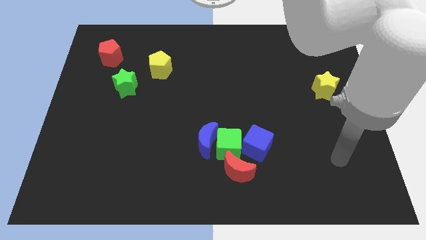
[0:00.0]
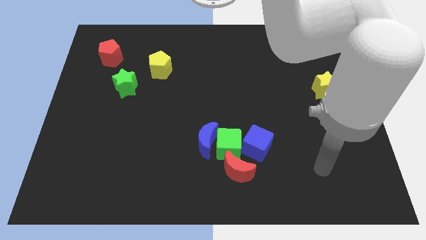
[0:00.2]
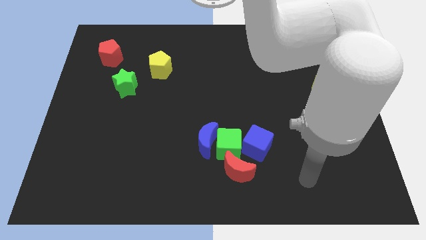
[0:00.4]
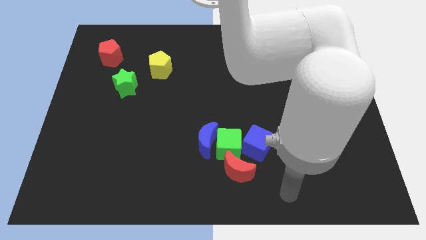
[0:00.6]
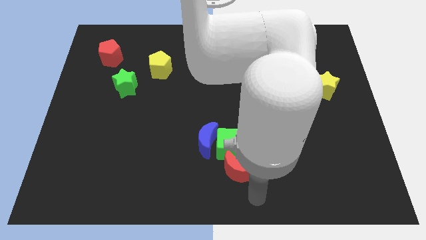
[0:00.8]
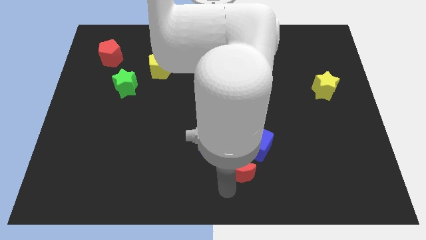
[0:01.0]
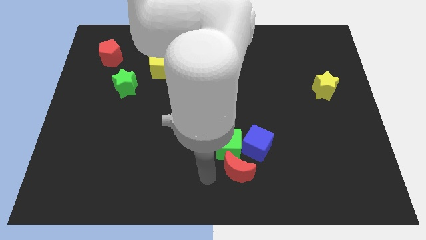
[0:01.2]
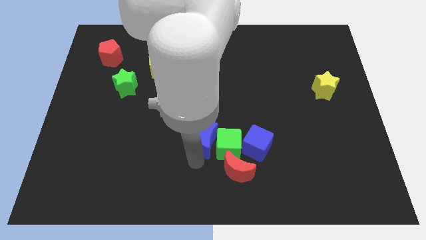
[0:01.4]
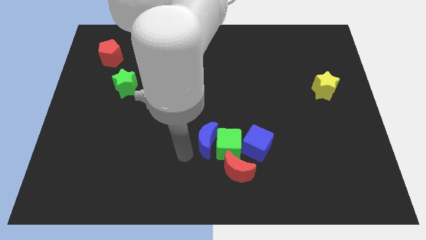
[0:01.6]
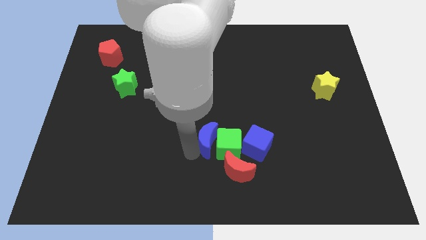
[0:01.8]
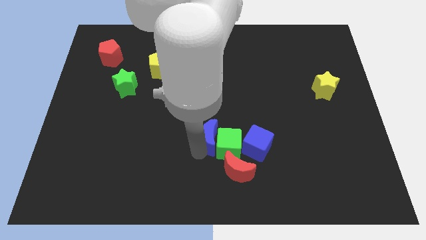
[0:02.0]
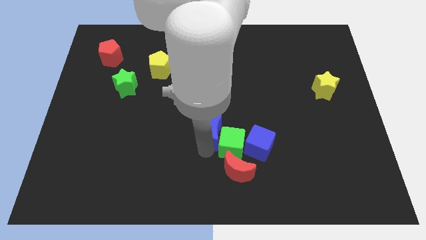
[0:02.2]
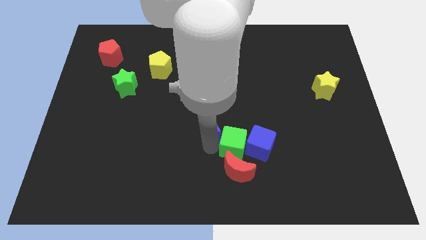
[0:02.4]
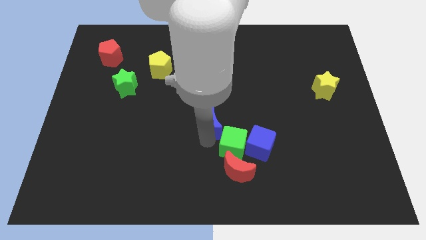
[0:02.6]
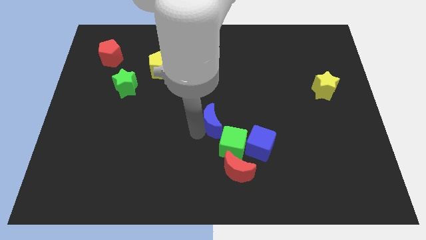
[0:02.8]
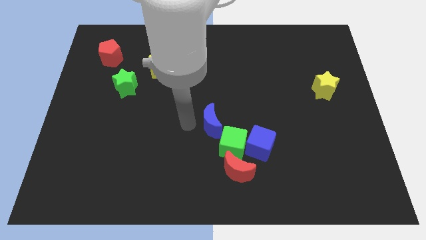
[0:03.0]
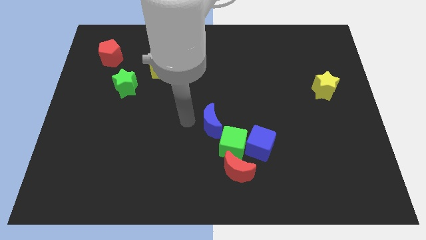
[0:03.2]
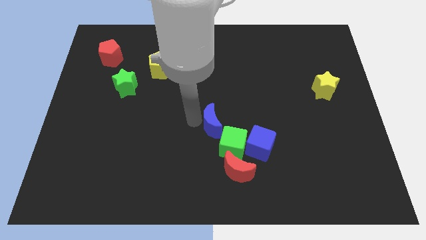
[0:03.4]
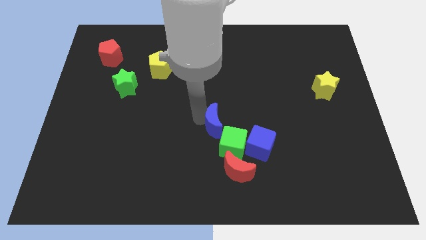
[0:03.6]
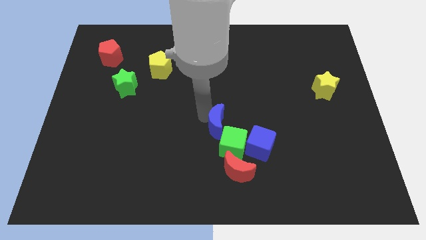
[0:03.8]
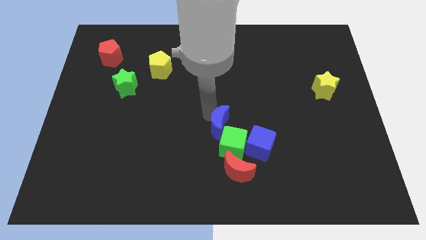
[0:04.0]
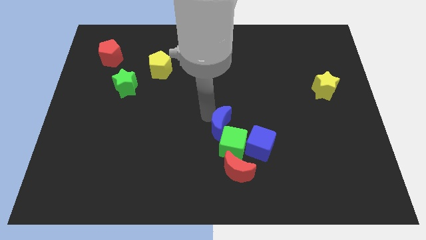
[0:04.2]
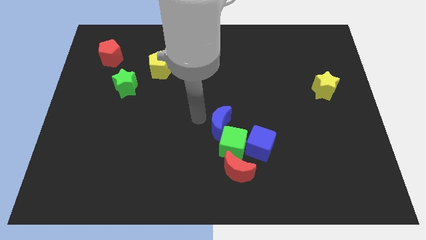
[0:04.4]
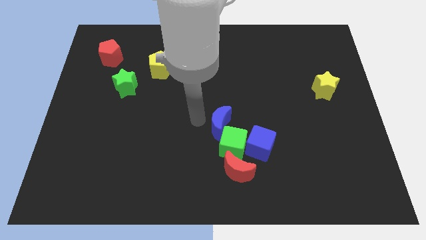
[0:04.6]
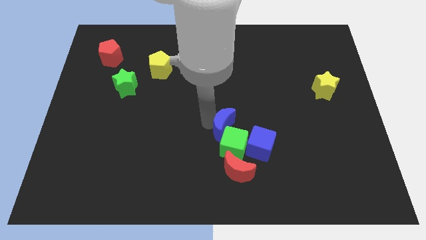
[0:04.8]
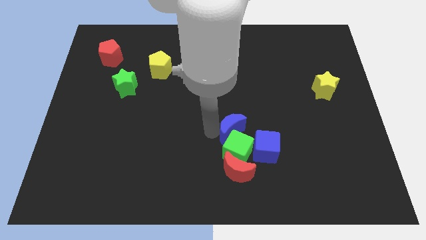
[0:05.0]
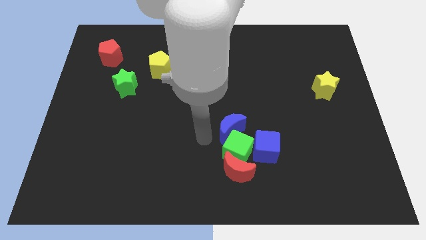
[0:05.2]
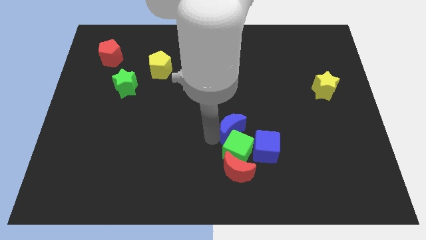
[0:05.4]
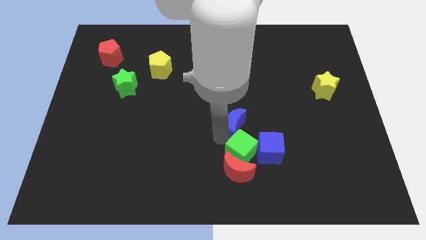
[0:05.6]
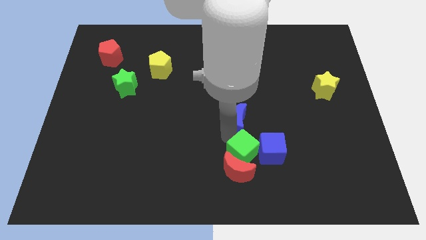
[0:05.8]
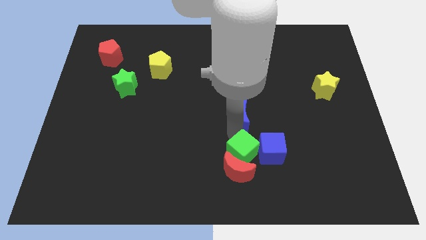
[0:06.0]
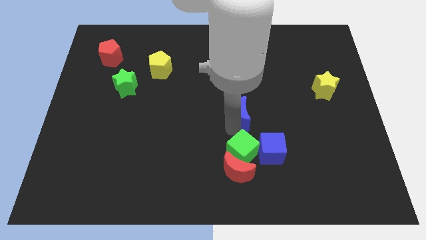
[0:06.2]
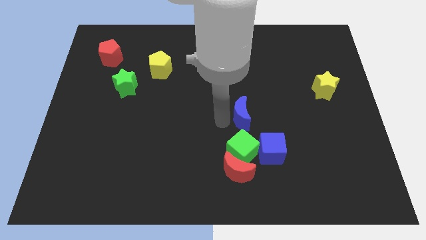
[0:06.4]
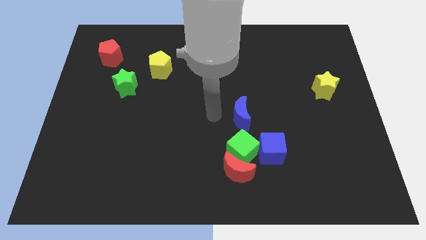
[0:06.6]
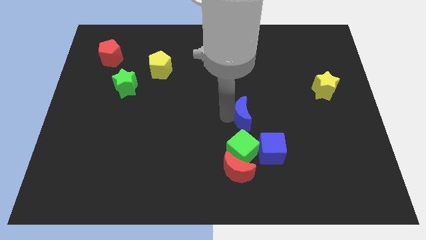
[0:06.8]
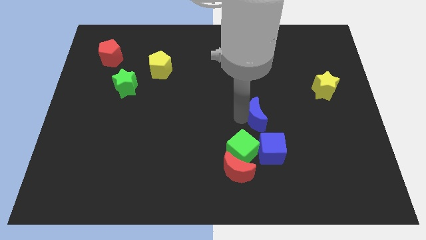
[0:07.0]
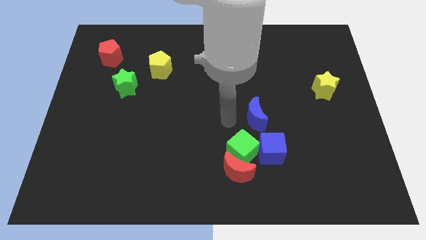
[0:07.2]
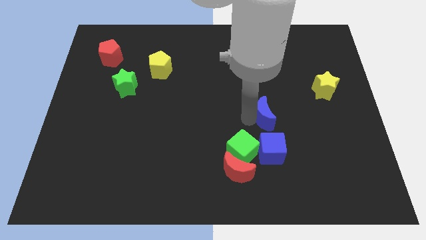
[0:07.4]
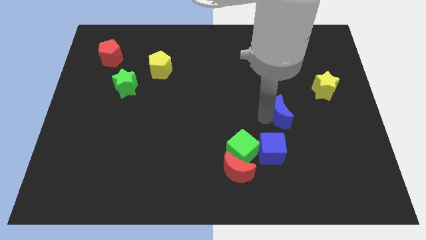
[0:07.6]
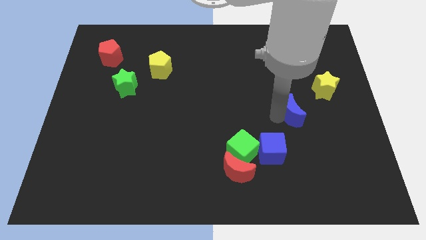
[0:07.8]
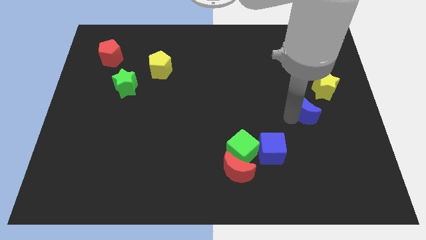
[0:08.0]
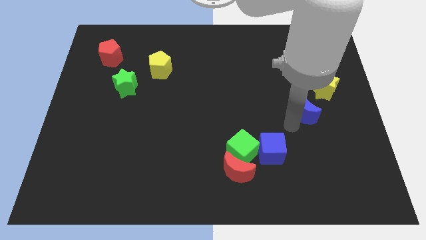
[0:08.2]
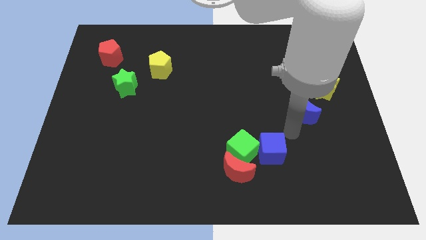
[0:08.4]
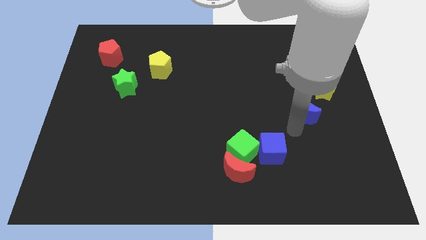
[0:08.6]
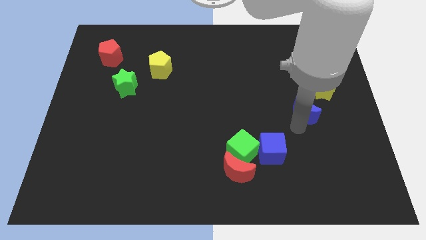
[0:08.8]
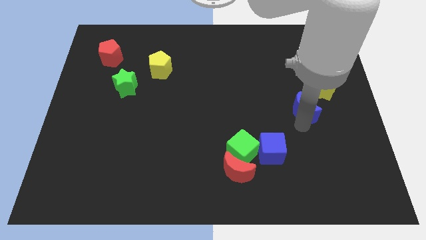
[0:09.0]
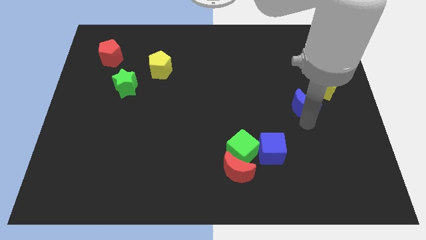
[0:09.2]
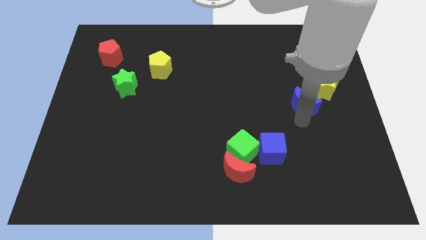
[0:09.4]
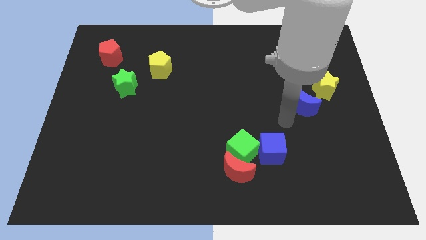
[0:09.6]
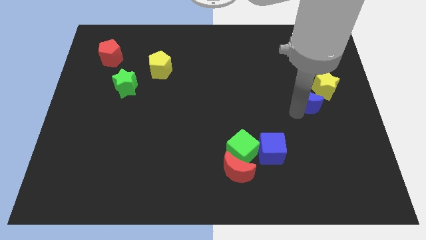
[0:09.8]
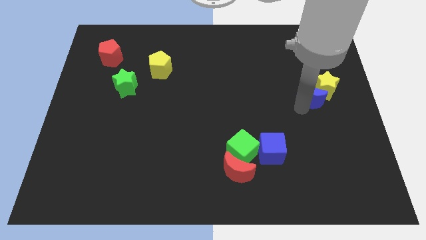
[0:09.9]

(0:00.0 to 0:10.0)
put the blue moon to the yellow star

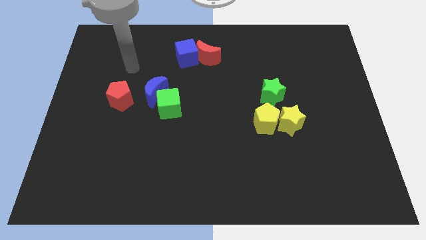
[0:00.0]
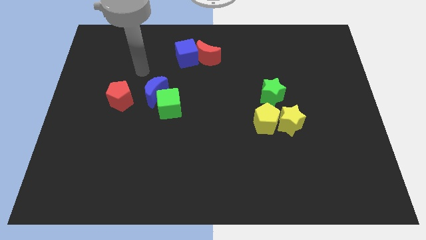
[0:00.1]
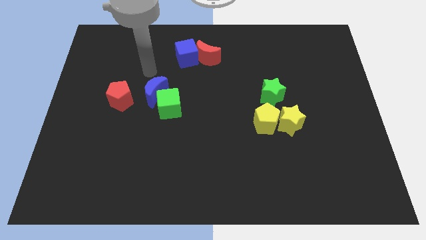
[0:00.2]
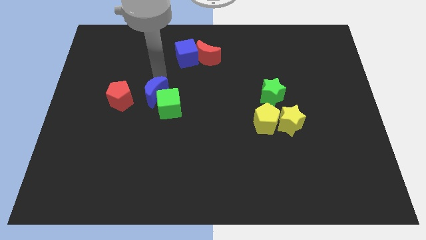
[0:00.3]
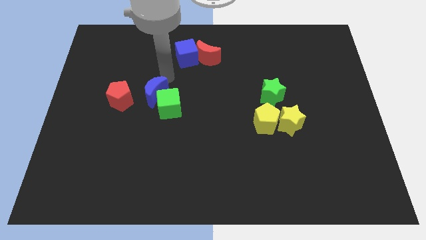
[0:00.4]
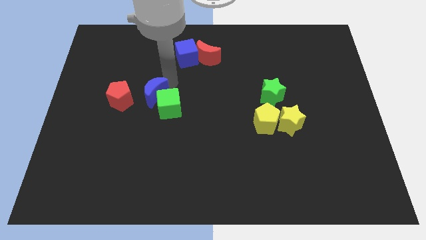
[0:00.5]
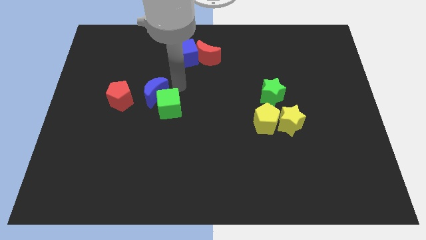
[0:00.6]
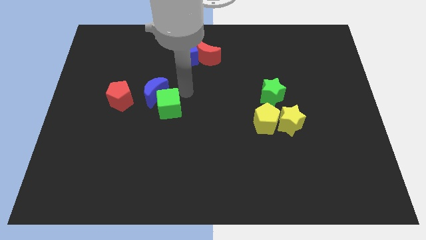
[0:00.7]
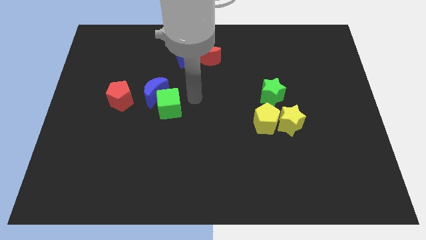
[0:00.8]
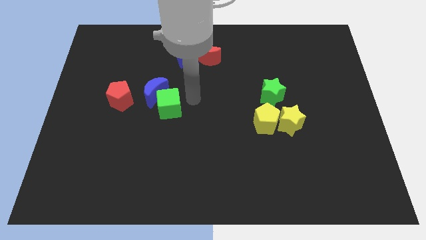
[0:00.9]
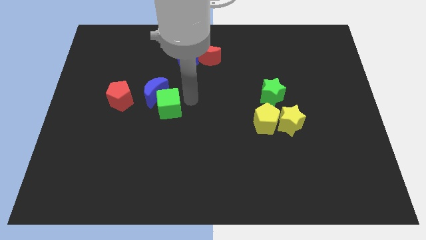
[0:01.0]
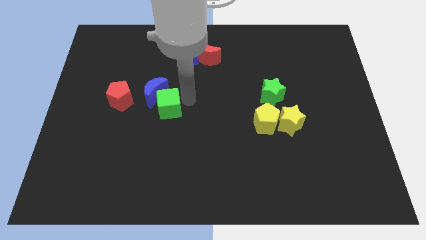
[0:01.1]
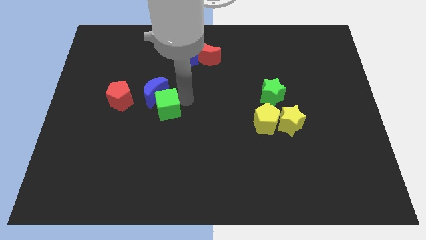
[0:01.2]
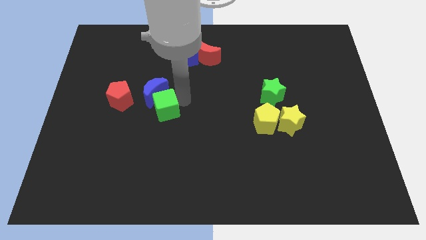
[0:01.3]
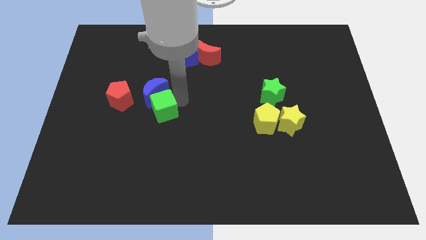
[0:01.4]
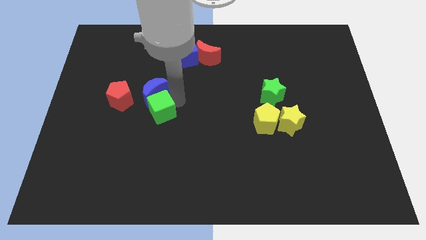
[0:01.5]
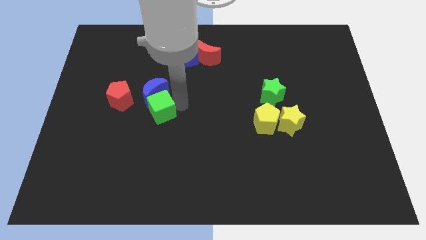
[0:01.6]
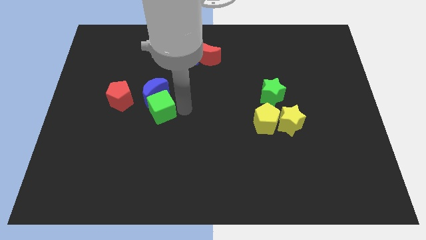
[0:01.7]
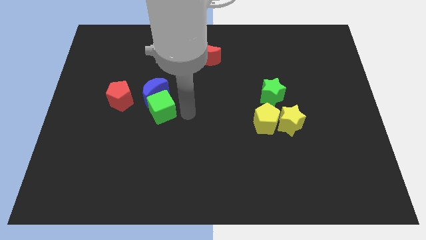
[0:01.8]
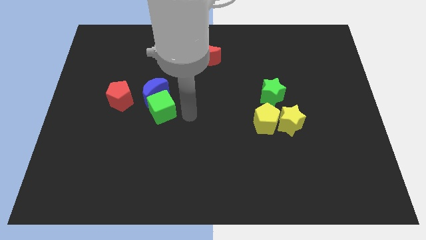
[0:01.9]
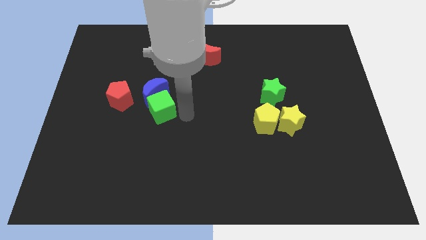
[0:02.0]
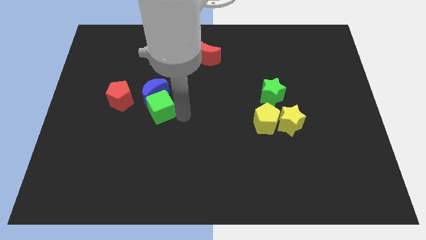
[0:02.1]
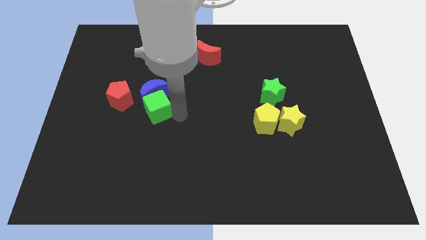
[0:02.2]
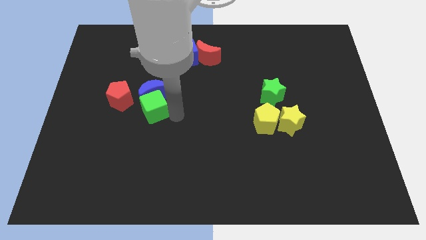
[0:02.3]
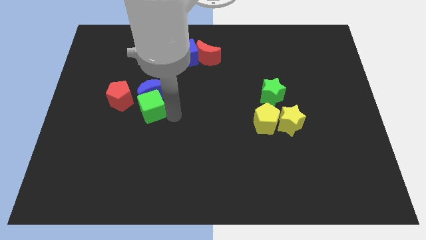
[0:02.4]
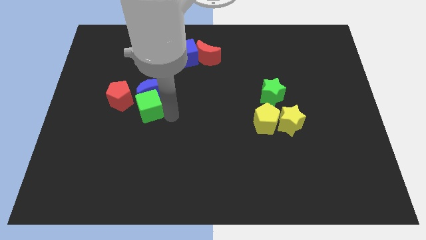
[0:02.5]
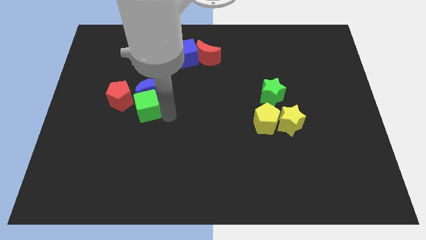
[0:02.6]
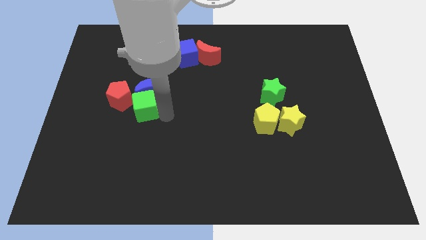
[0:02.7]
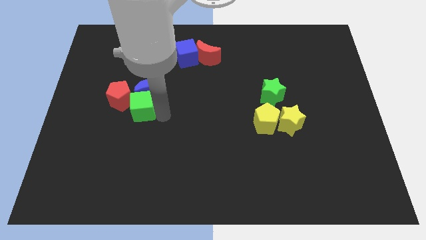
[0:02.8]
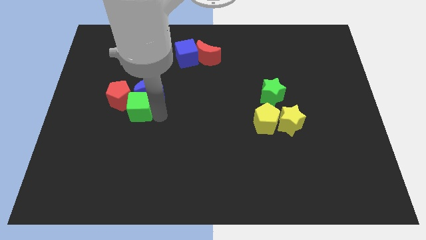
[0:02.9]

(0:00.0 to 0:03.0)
slide the green cube to the red pentagon
